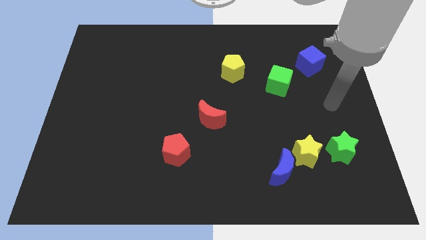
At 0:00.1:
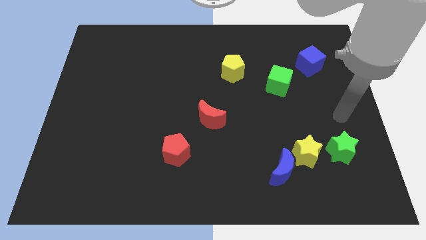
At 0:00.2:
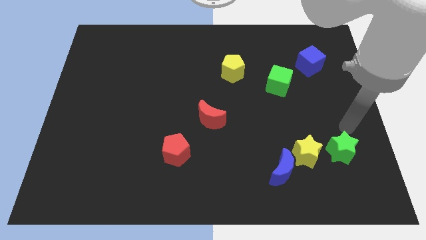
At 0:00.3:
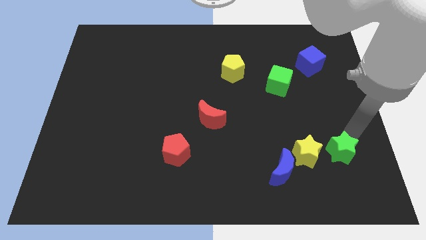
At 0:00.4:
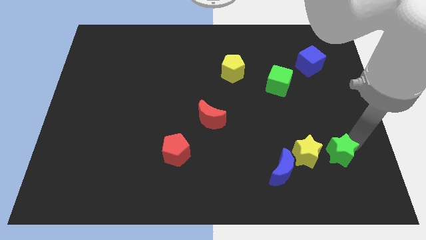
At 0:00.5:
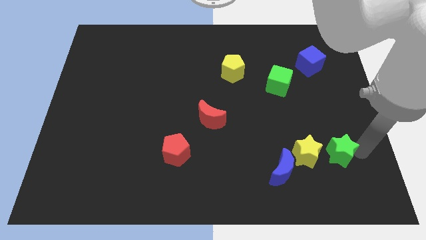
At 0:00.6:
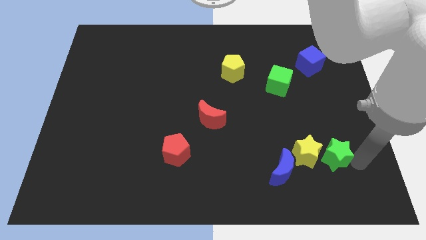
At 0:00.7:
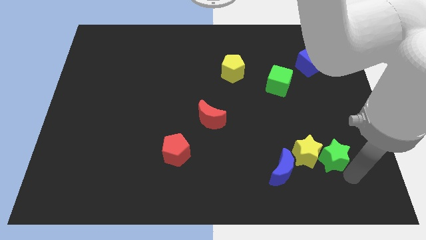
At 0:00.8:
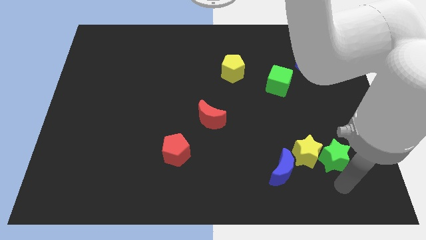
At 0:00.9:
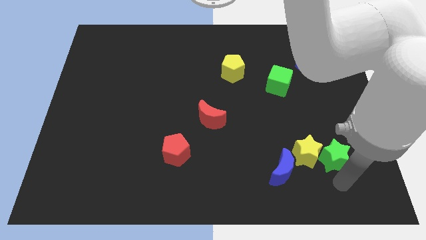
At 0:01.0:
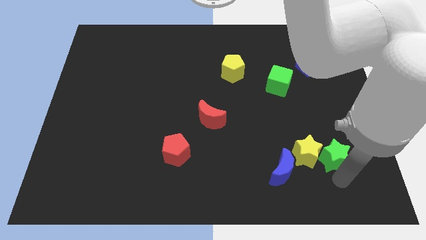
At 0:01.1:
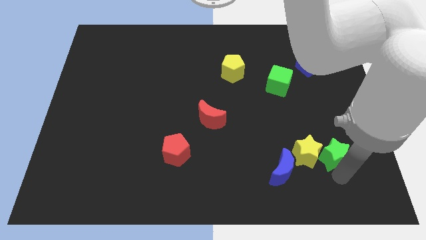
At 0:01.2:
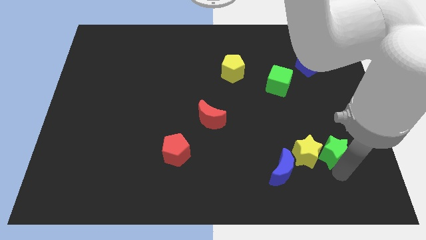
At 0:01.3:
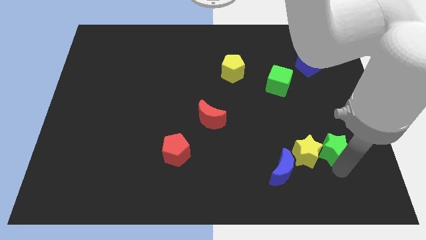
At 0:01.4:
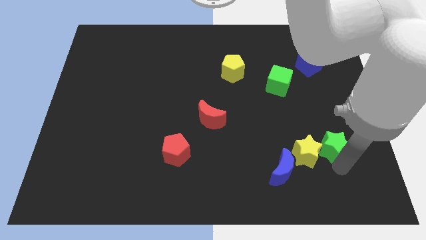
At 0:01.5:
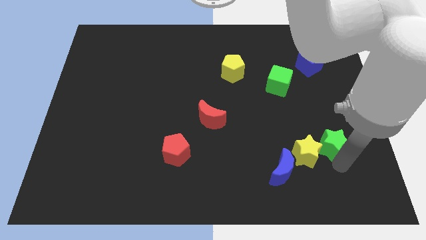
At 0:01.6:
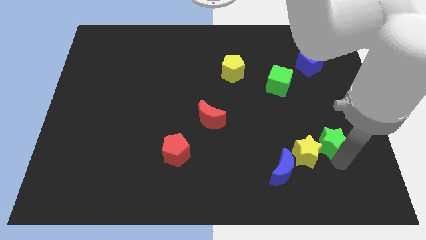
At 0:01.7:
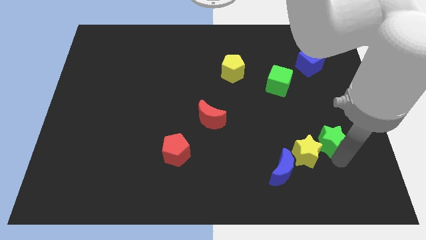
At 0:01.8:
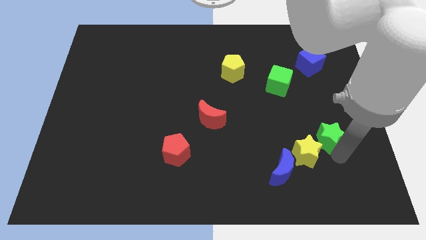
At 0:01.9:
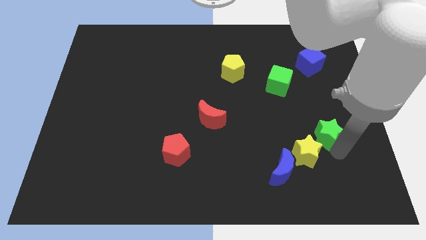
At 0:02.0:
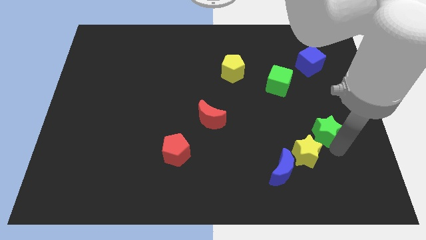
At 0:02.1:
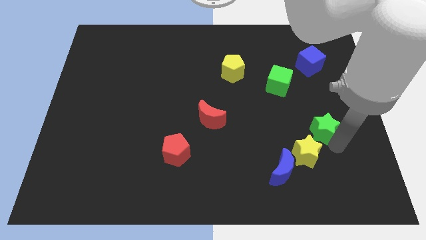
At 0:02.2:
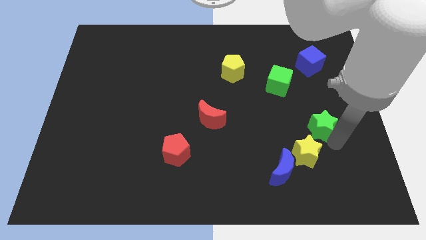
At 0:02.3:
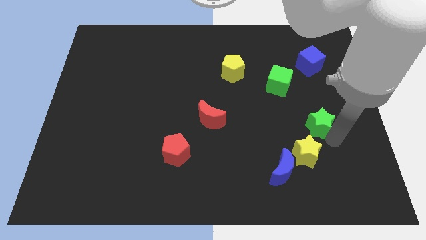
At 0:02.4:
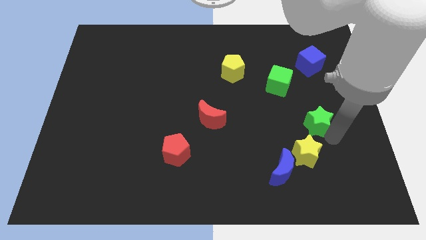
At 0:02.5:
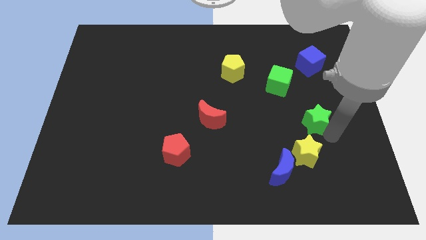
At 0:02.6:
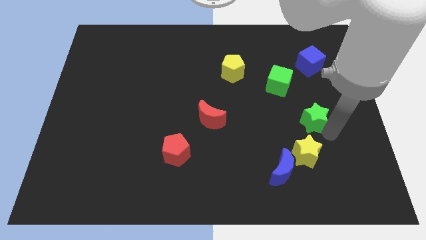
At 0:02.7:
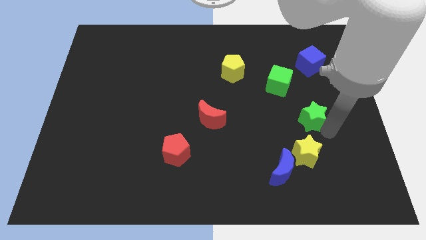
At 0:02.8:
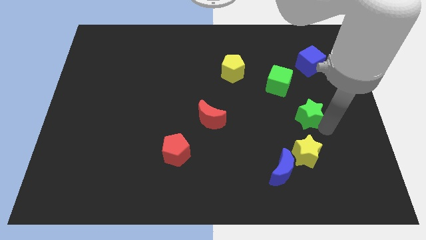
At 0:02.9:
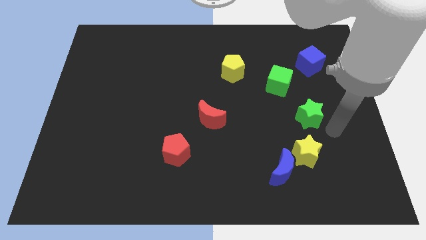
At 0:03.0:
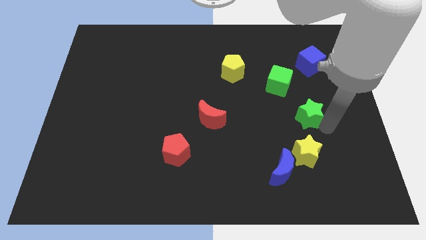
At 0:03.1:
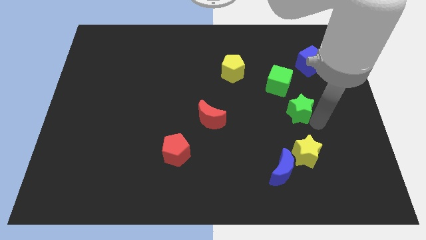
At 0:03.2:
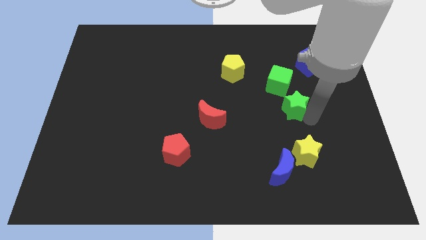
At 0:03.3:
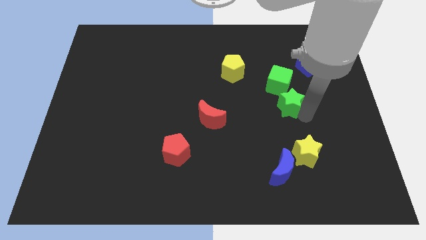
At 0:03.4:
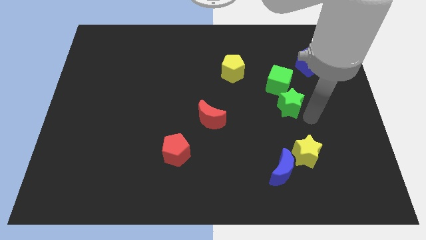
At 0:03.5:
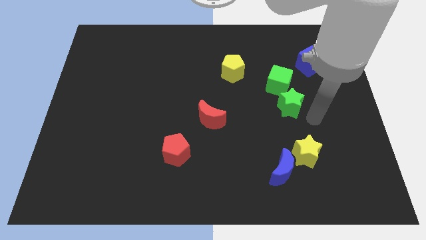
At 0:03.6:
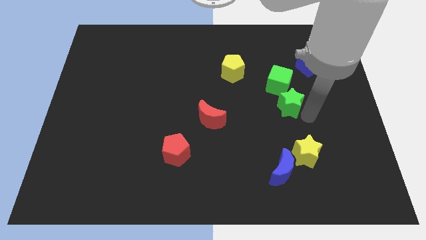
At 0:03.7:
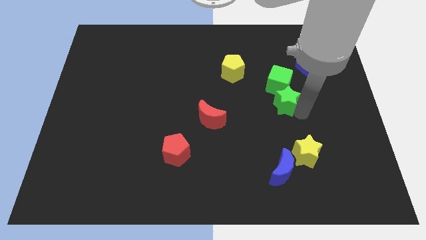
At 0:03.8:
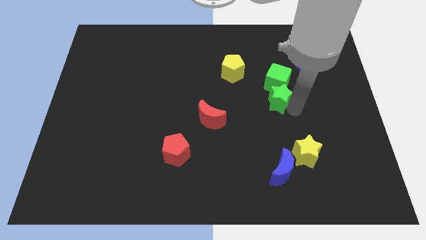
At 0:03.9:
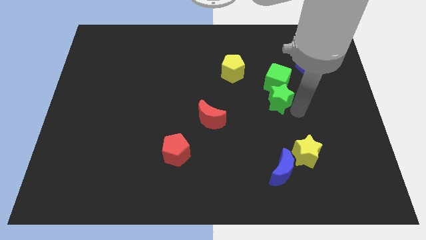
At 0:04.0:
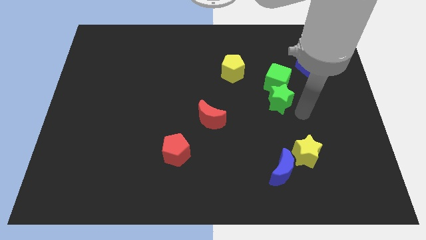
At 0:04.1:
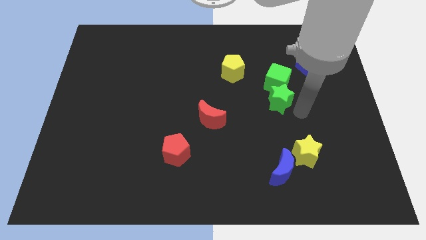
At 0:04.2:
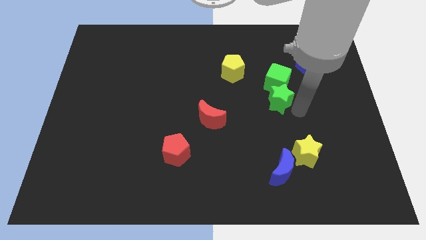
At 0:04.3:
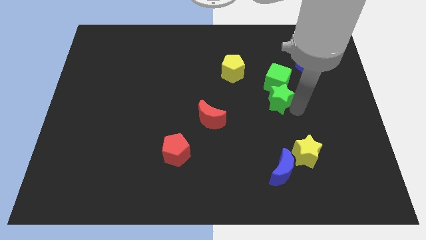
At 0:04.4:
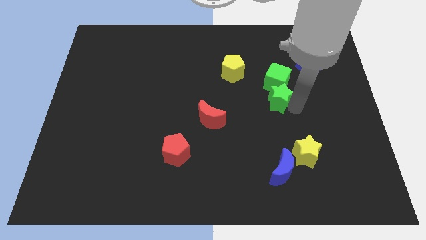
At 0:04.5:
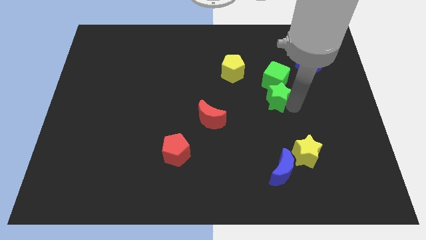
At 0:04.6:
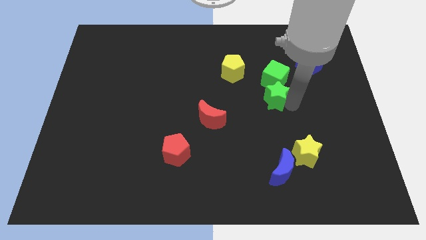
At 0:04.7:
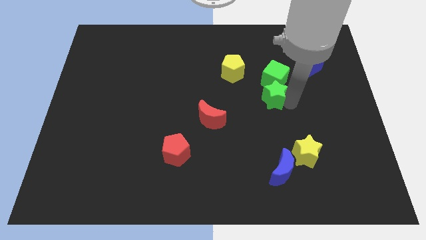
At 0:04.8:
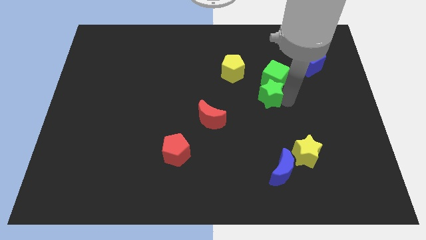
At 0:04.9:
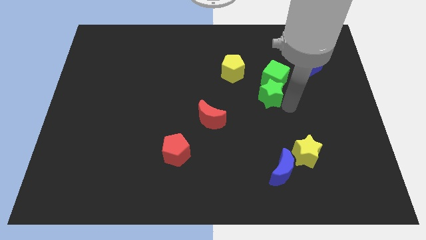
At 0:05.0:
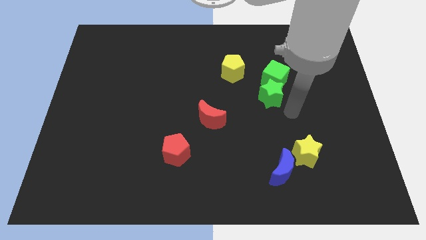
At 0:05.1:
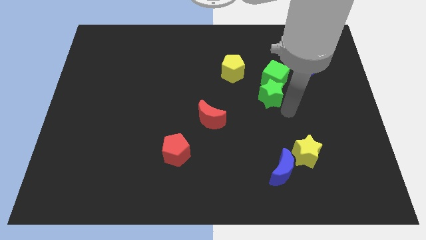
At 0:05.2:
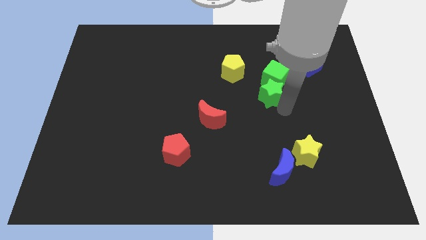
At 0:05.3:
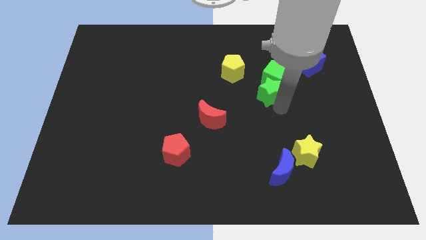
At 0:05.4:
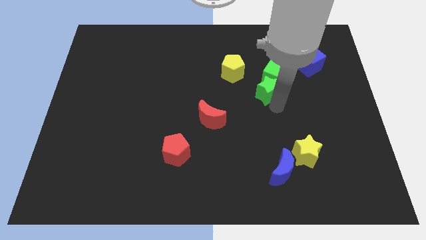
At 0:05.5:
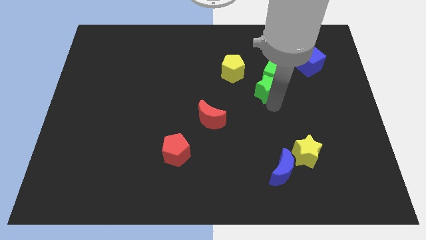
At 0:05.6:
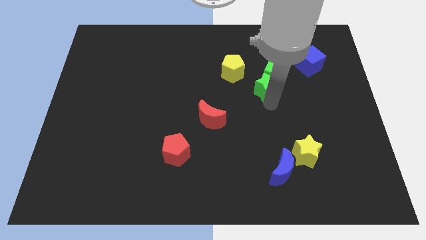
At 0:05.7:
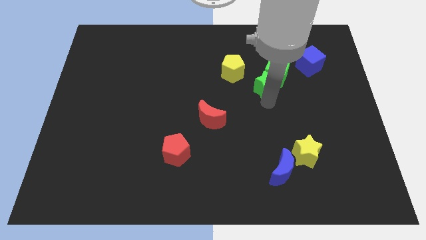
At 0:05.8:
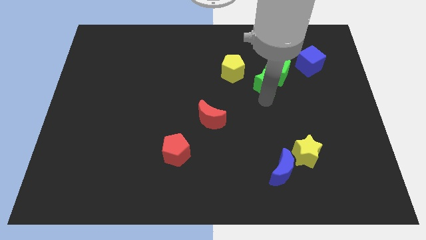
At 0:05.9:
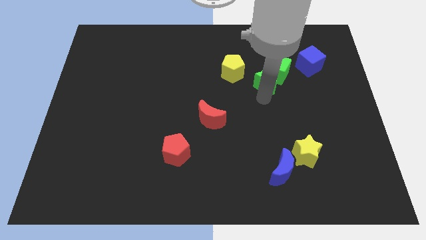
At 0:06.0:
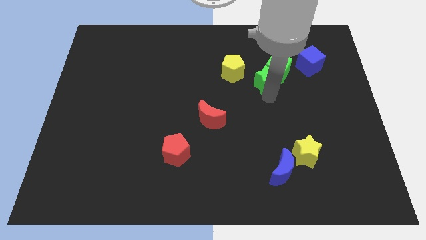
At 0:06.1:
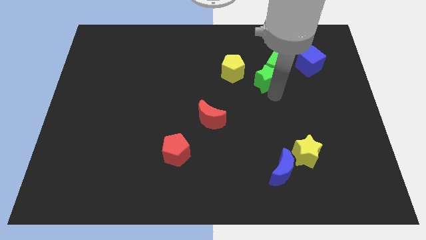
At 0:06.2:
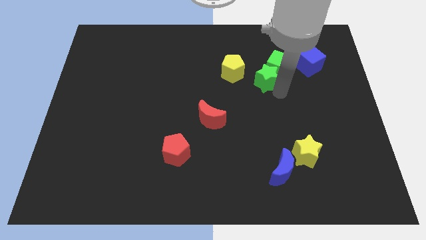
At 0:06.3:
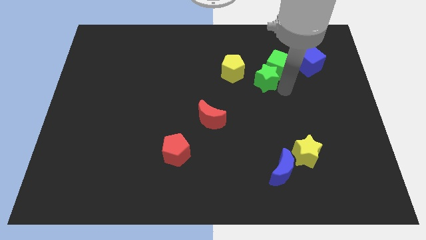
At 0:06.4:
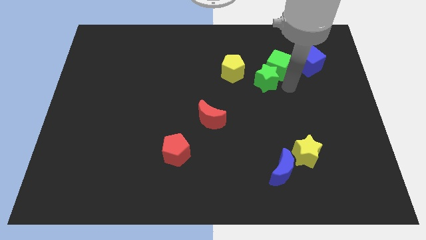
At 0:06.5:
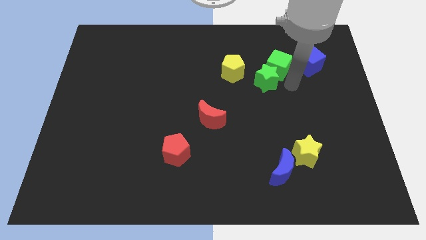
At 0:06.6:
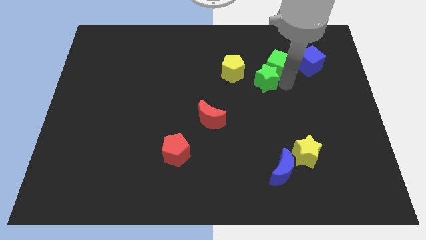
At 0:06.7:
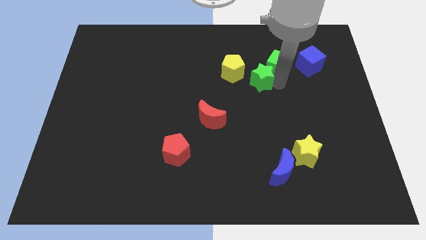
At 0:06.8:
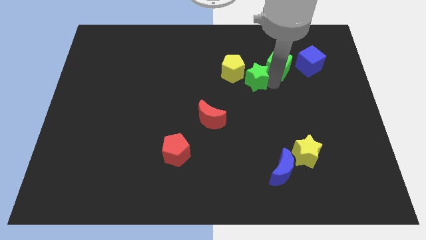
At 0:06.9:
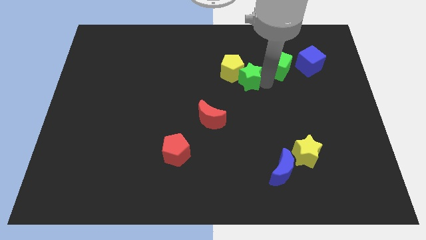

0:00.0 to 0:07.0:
put the green star towards the yellow pentagon
